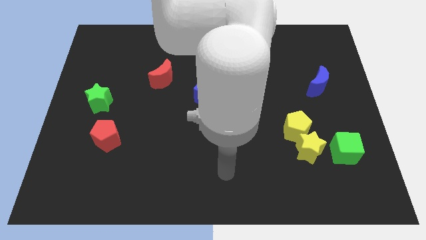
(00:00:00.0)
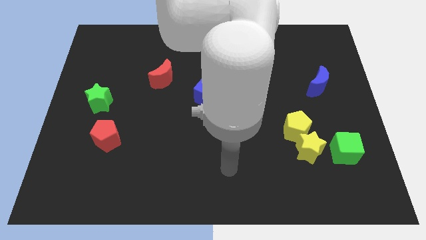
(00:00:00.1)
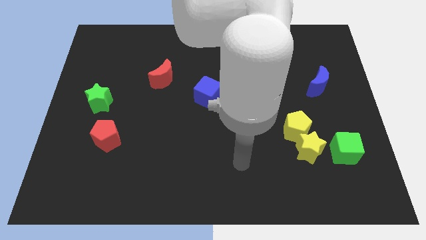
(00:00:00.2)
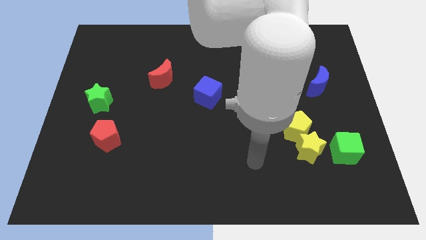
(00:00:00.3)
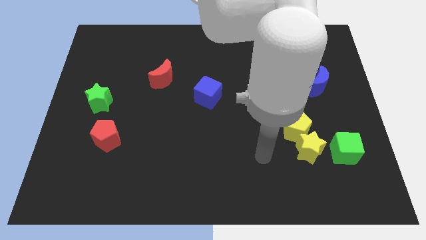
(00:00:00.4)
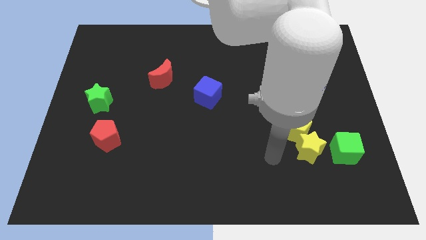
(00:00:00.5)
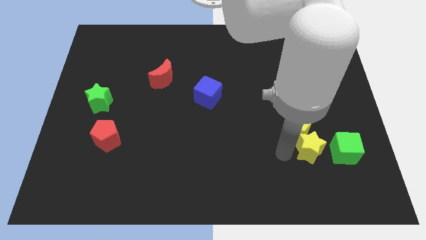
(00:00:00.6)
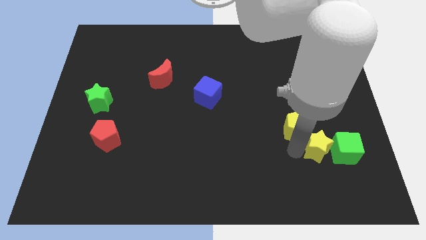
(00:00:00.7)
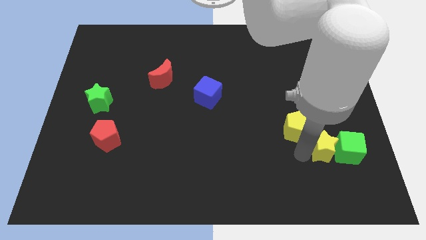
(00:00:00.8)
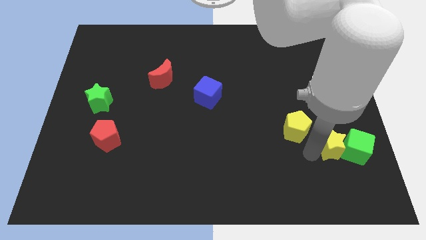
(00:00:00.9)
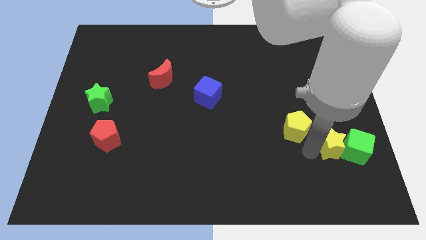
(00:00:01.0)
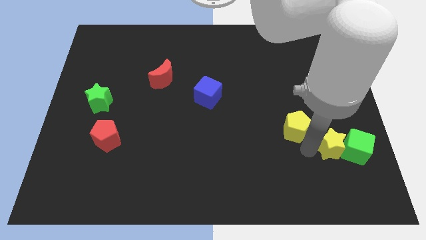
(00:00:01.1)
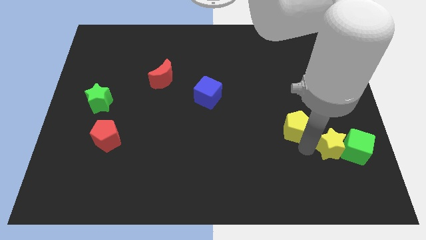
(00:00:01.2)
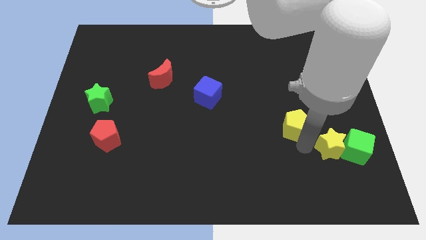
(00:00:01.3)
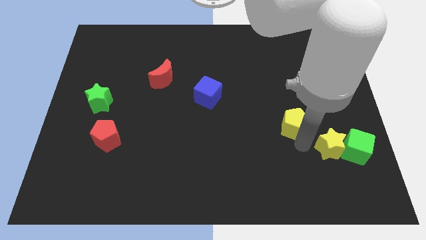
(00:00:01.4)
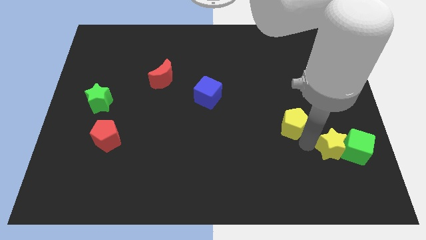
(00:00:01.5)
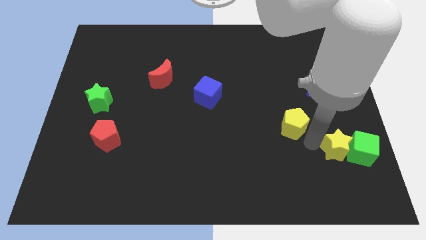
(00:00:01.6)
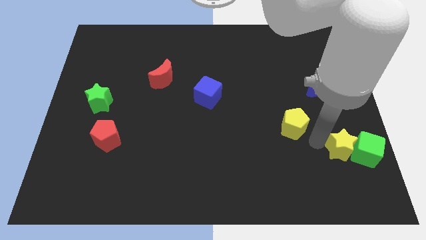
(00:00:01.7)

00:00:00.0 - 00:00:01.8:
separate the yellow pentagon from the yellow star

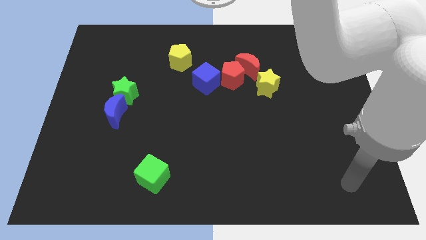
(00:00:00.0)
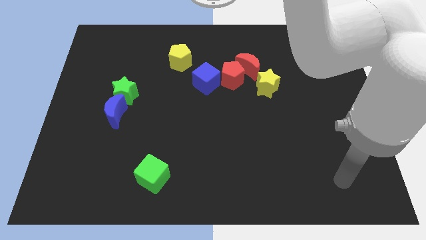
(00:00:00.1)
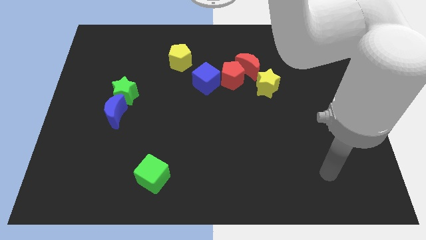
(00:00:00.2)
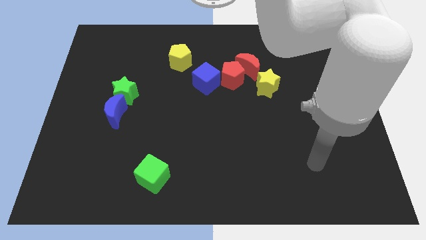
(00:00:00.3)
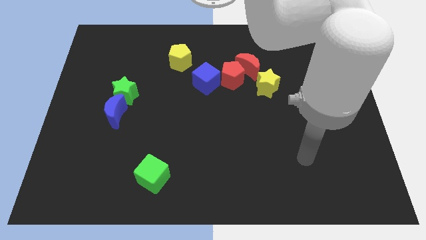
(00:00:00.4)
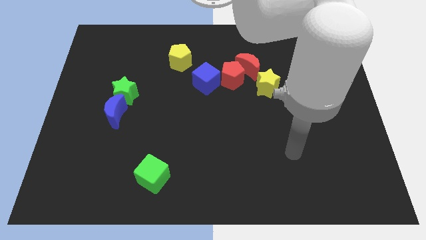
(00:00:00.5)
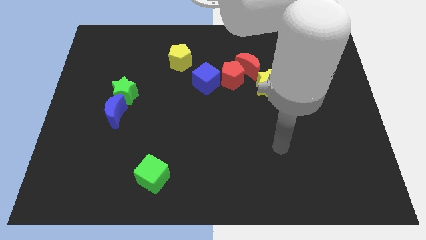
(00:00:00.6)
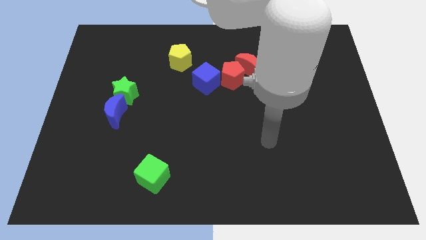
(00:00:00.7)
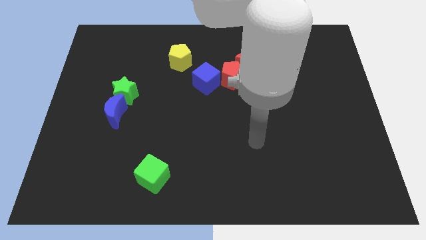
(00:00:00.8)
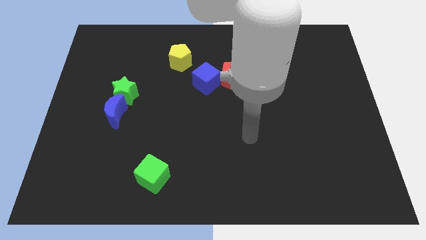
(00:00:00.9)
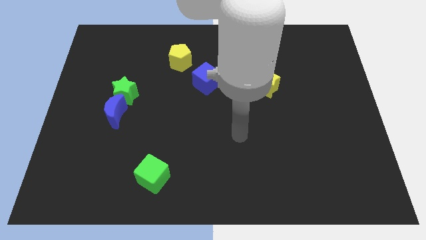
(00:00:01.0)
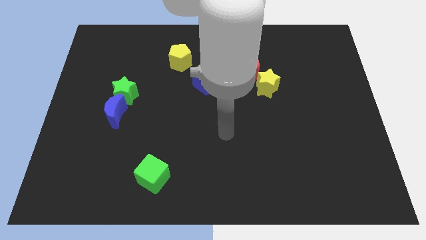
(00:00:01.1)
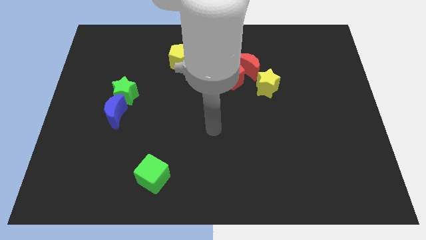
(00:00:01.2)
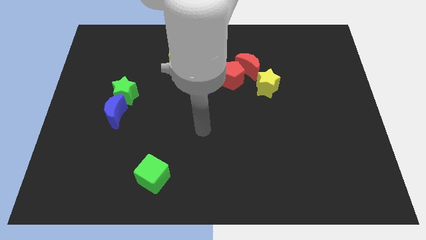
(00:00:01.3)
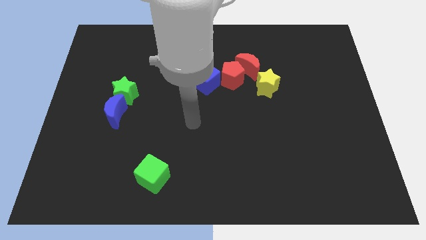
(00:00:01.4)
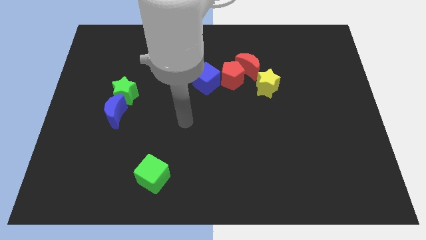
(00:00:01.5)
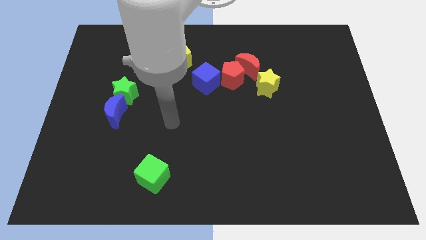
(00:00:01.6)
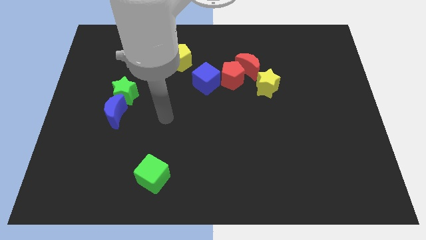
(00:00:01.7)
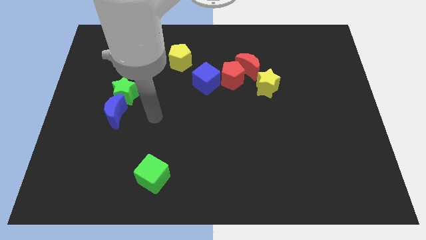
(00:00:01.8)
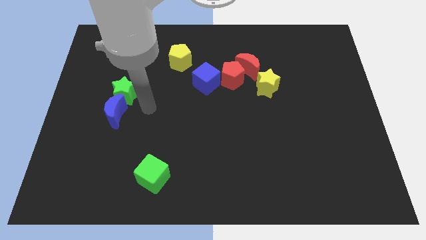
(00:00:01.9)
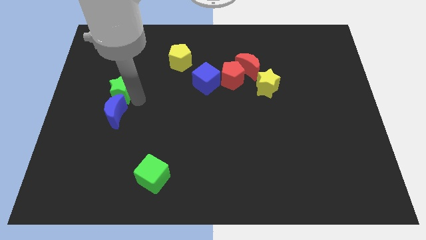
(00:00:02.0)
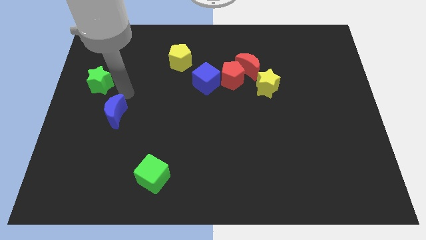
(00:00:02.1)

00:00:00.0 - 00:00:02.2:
separate the blue moon from the green star

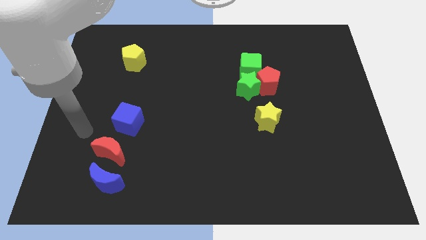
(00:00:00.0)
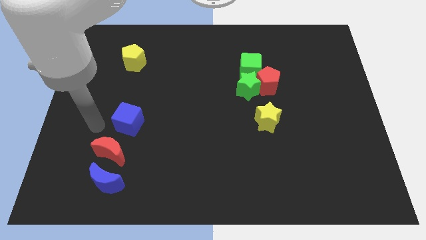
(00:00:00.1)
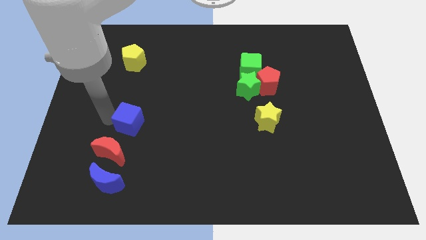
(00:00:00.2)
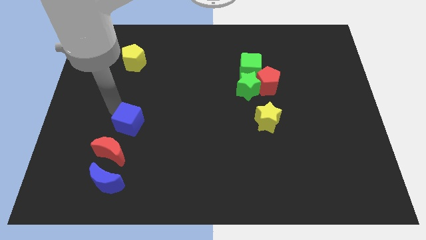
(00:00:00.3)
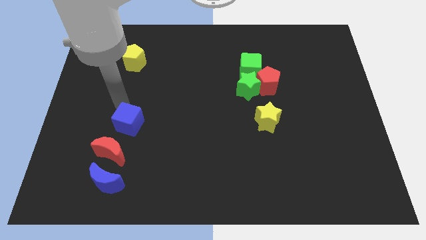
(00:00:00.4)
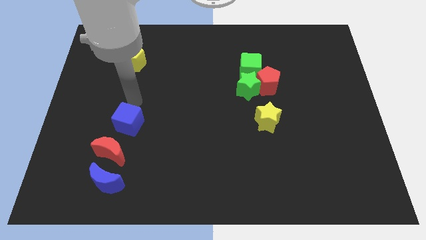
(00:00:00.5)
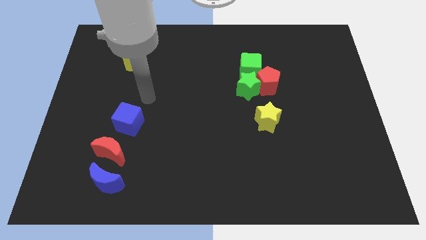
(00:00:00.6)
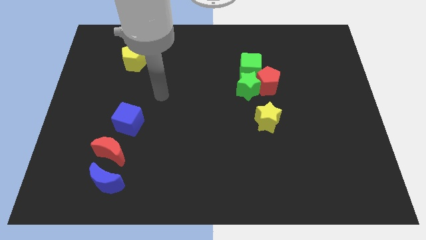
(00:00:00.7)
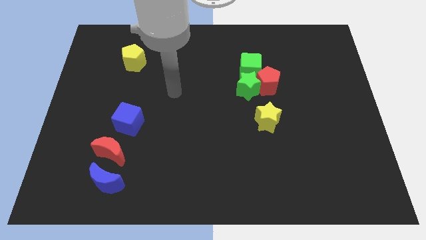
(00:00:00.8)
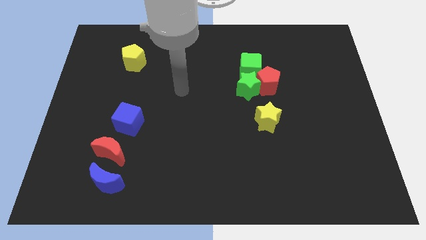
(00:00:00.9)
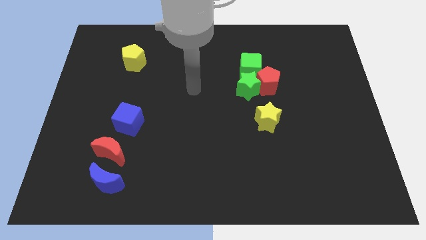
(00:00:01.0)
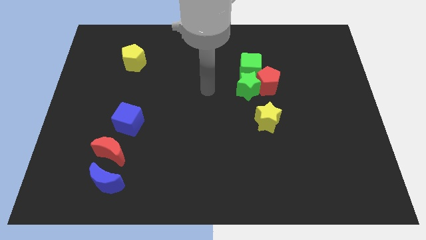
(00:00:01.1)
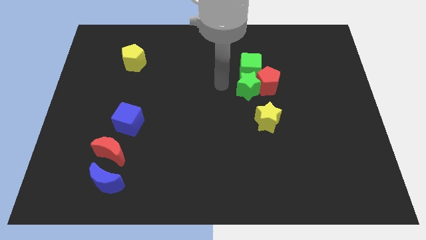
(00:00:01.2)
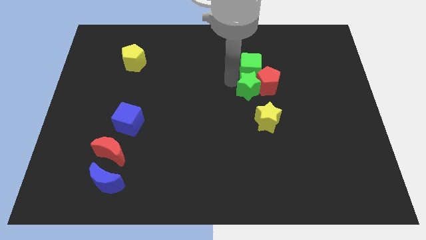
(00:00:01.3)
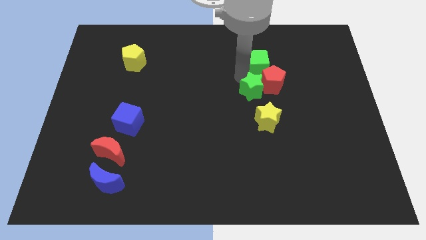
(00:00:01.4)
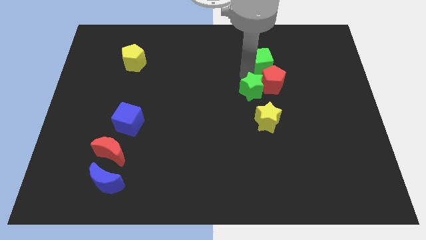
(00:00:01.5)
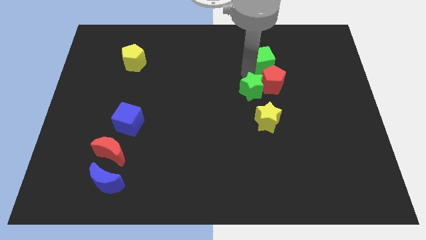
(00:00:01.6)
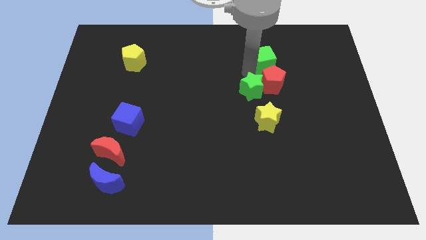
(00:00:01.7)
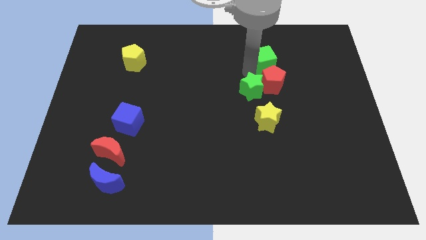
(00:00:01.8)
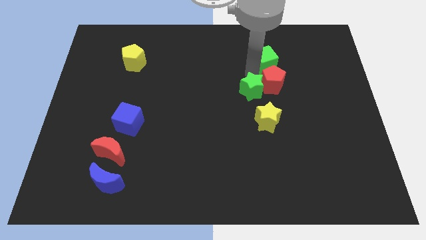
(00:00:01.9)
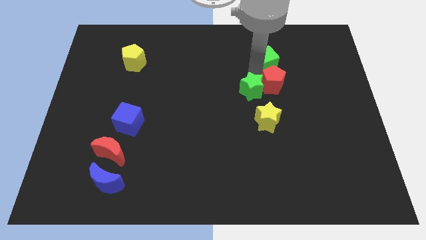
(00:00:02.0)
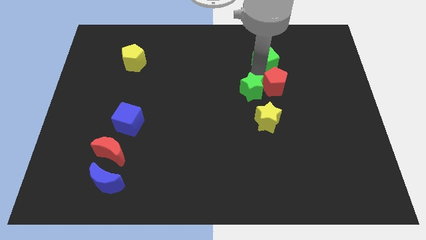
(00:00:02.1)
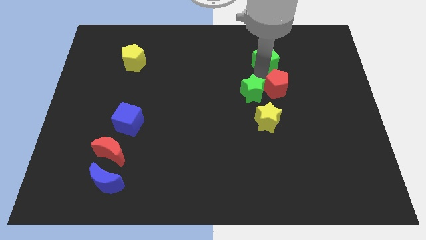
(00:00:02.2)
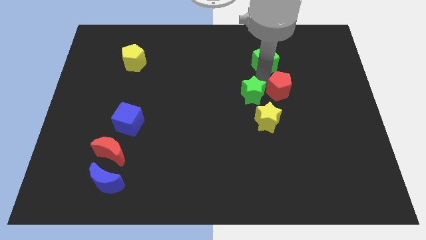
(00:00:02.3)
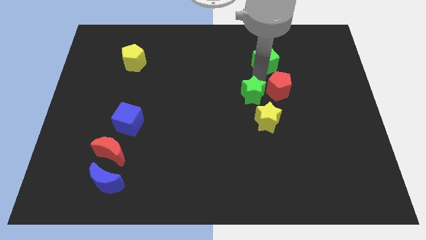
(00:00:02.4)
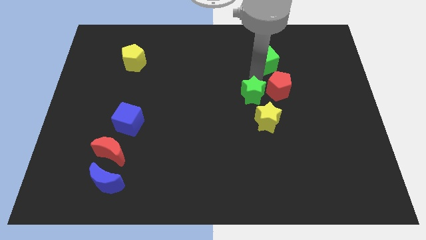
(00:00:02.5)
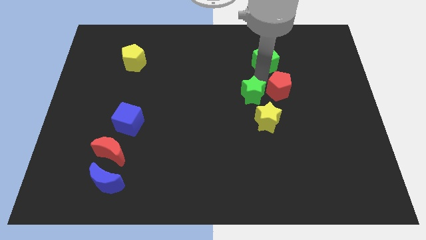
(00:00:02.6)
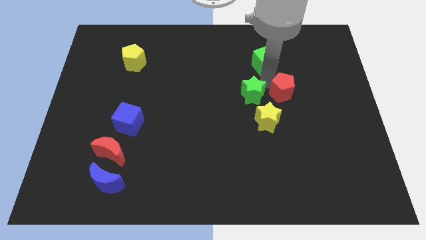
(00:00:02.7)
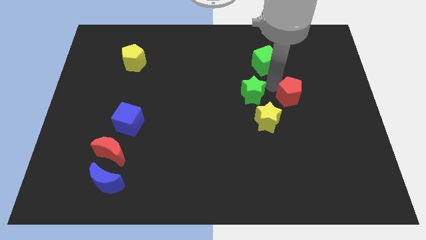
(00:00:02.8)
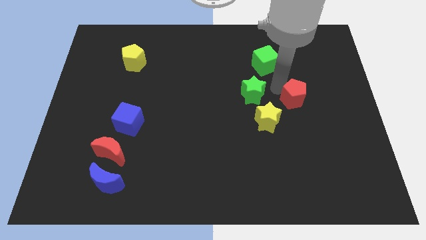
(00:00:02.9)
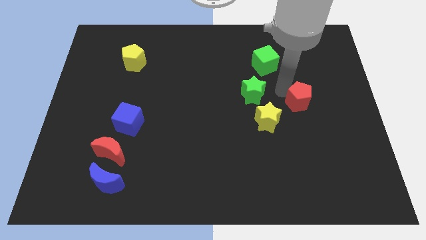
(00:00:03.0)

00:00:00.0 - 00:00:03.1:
move the red pentagon away from the green star and green cube

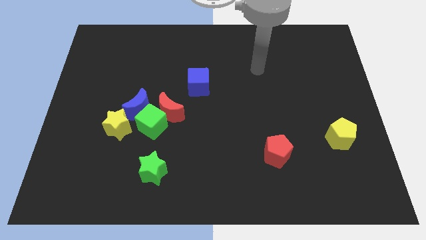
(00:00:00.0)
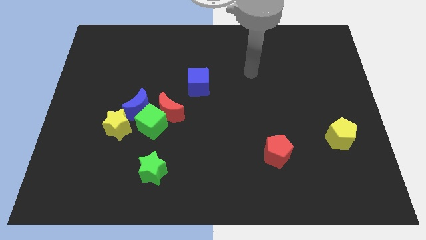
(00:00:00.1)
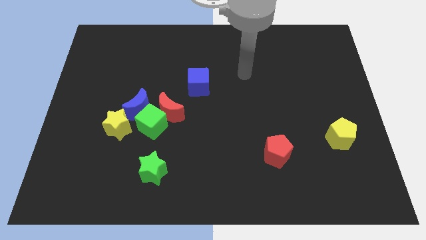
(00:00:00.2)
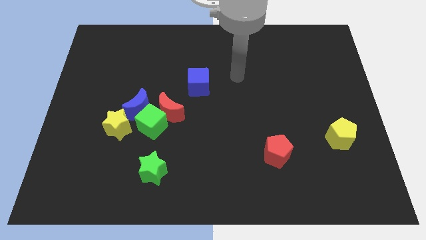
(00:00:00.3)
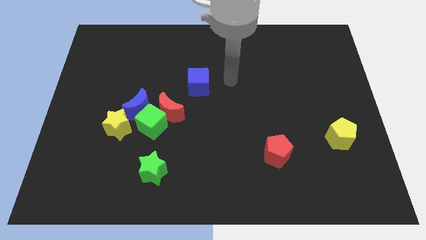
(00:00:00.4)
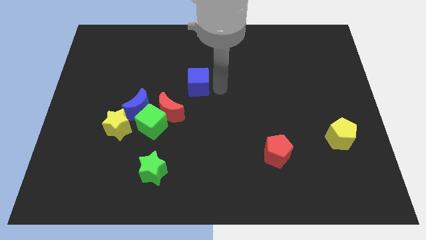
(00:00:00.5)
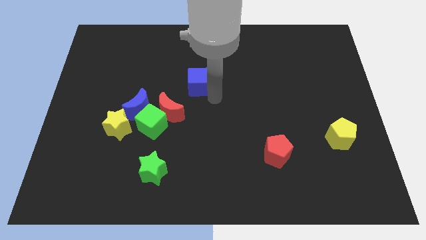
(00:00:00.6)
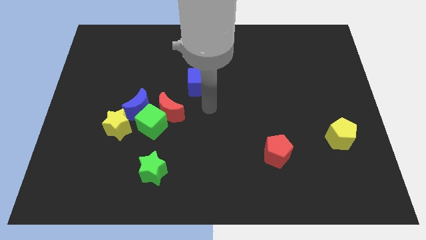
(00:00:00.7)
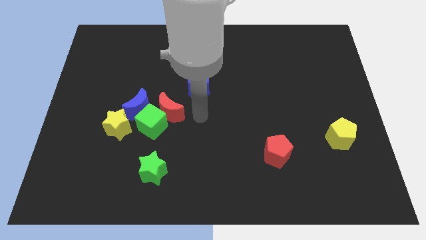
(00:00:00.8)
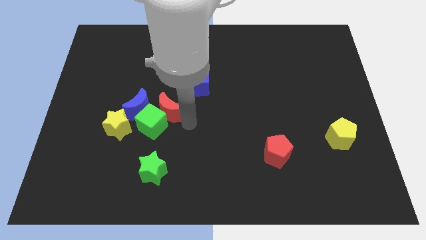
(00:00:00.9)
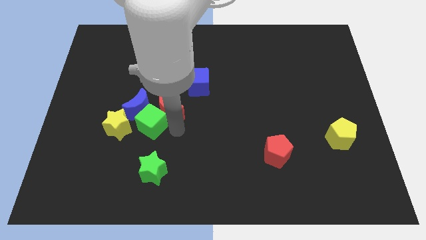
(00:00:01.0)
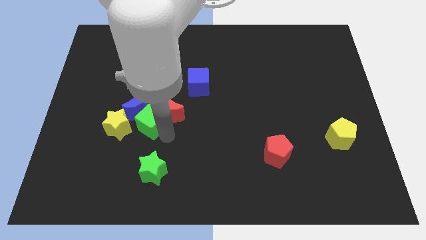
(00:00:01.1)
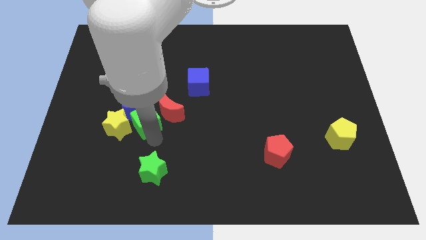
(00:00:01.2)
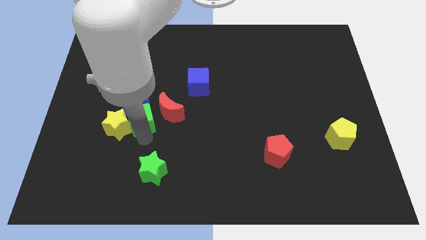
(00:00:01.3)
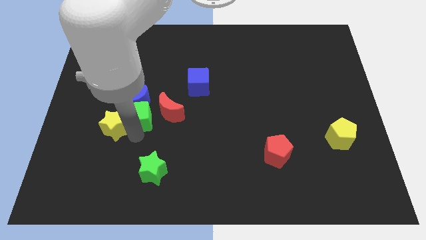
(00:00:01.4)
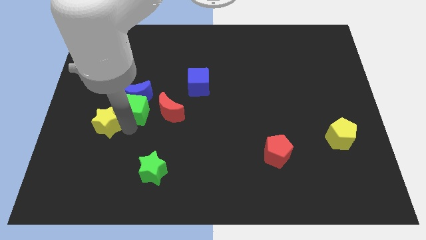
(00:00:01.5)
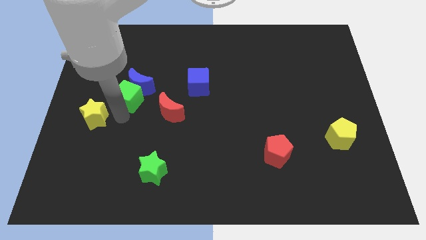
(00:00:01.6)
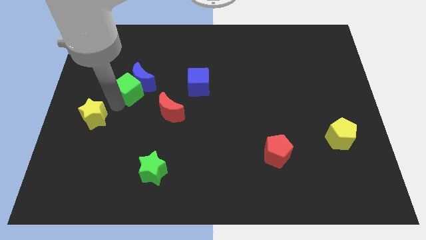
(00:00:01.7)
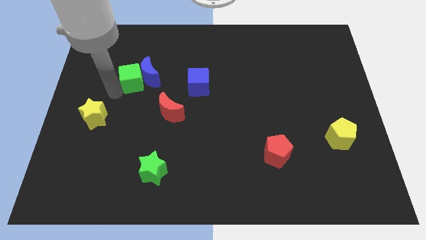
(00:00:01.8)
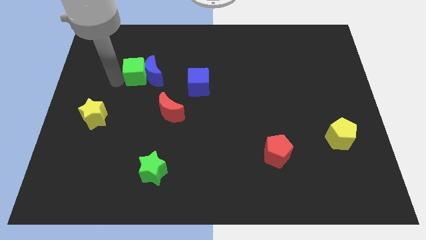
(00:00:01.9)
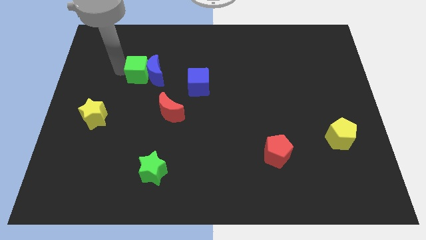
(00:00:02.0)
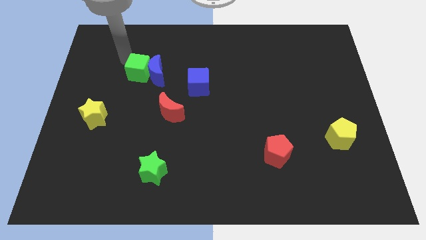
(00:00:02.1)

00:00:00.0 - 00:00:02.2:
pull the green cube apart from the clump
